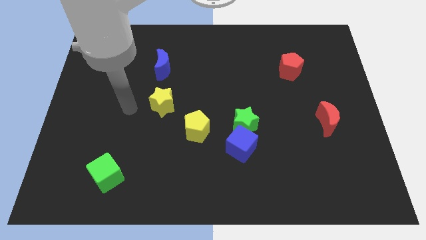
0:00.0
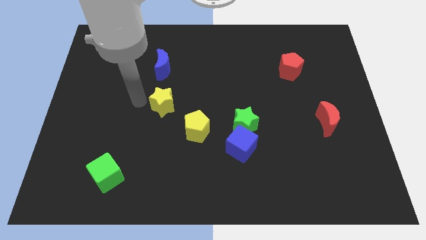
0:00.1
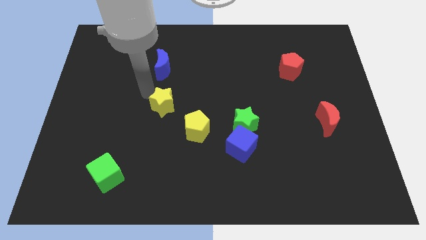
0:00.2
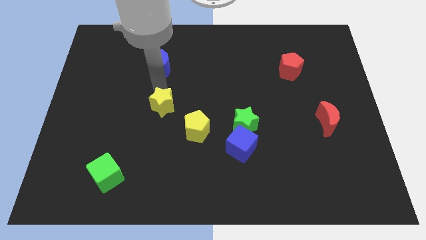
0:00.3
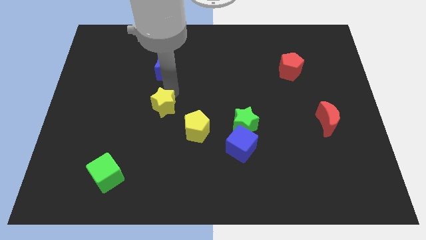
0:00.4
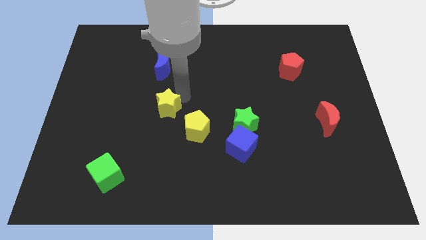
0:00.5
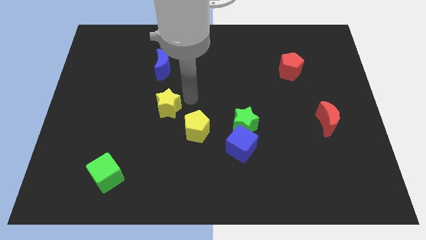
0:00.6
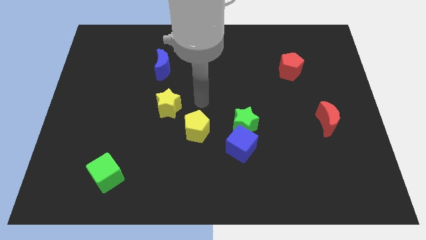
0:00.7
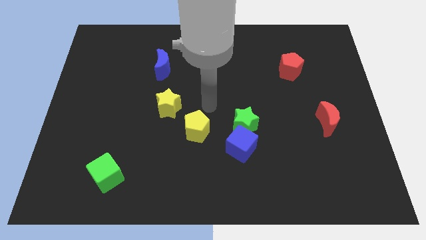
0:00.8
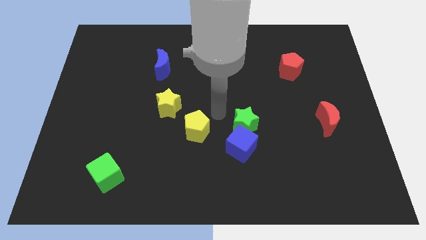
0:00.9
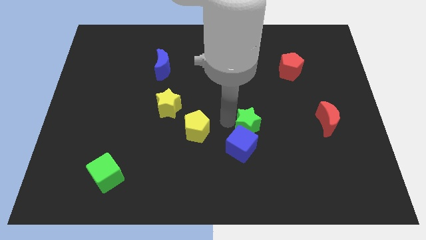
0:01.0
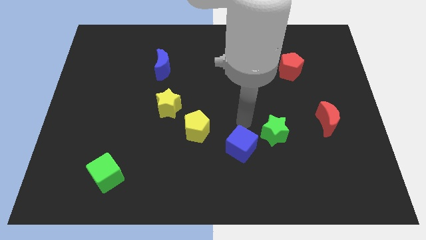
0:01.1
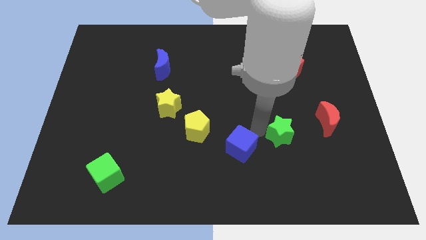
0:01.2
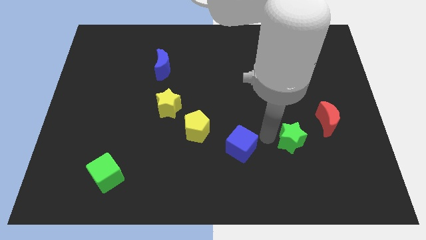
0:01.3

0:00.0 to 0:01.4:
move the blue cube away from the green star

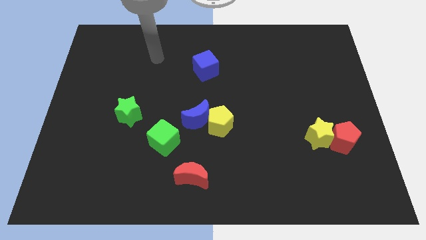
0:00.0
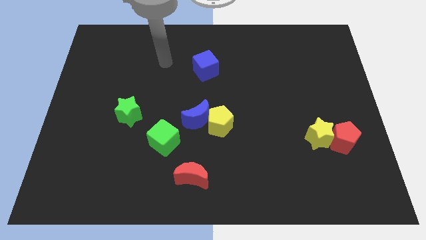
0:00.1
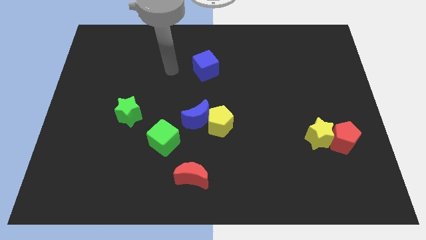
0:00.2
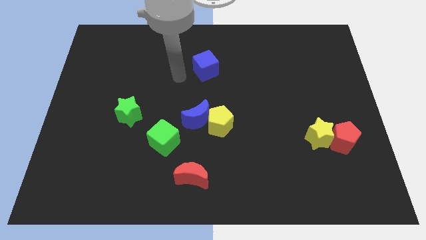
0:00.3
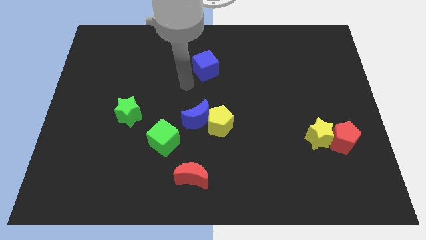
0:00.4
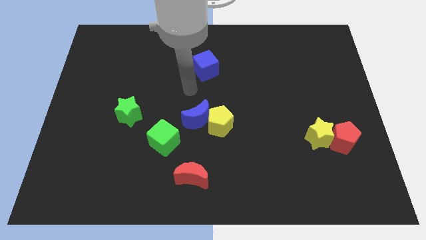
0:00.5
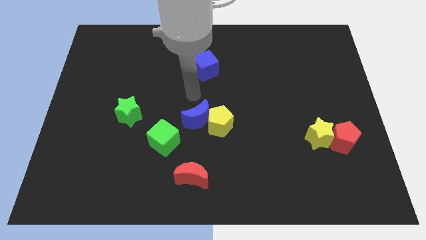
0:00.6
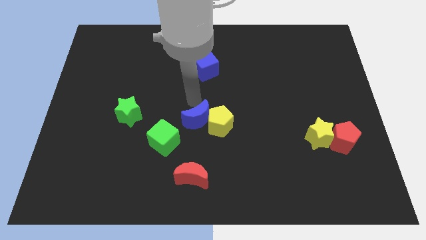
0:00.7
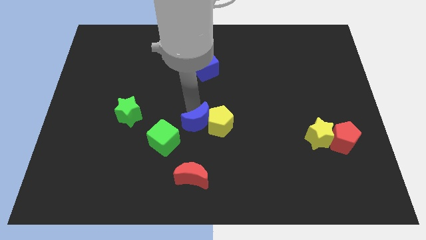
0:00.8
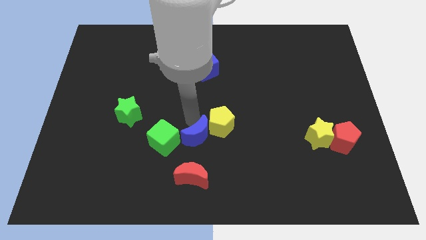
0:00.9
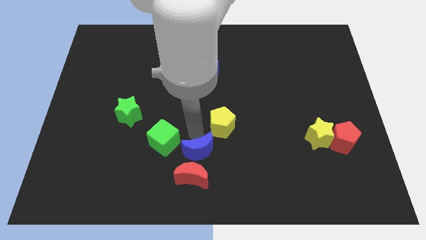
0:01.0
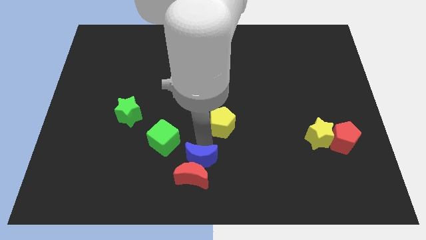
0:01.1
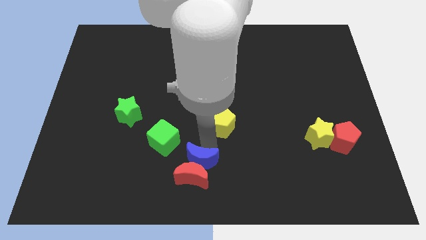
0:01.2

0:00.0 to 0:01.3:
pull the yellow pentagon apart from the blue moon

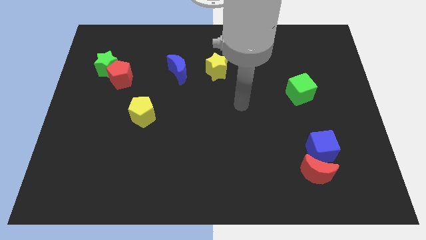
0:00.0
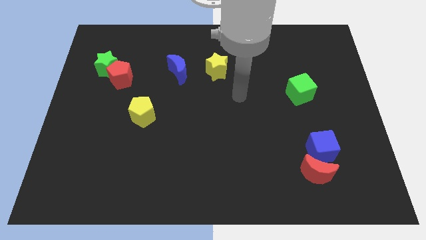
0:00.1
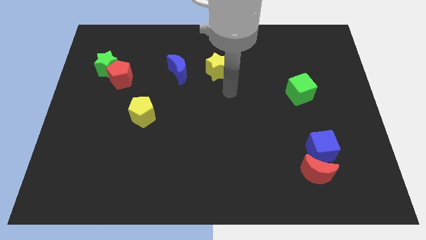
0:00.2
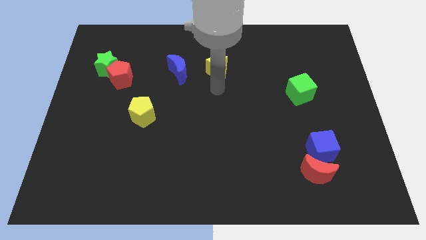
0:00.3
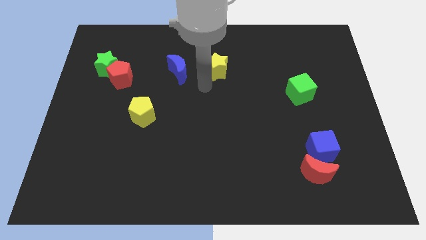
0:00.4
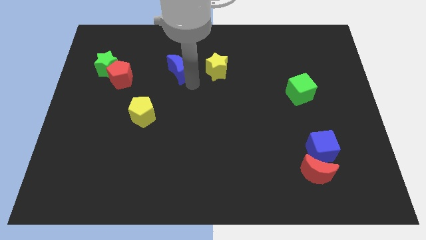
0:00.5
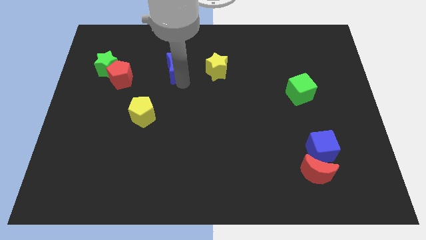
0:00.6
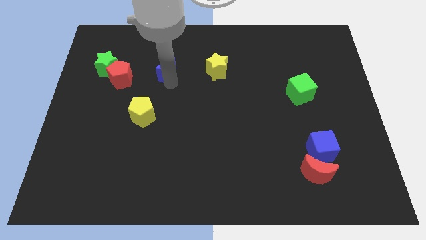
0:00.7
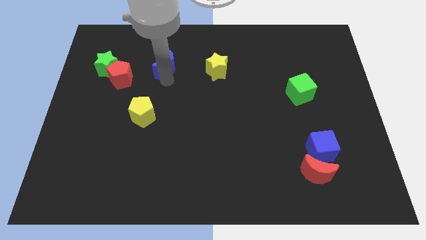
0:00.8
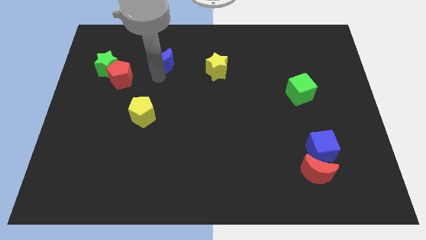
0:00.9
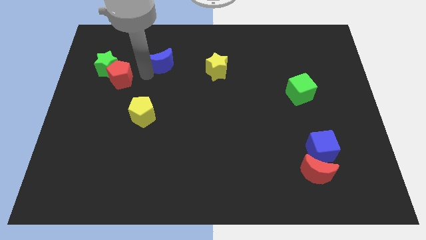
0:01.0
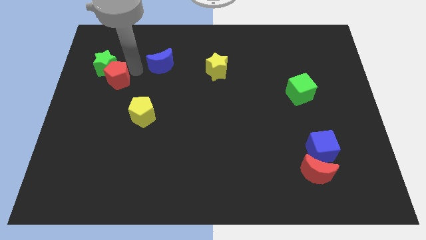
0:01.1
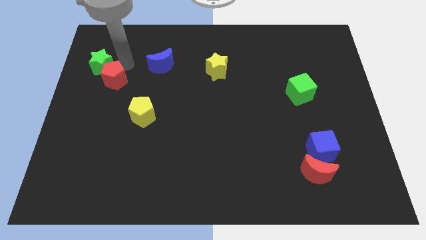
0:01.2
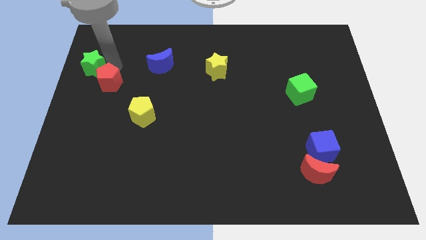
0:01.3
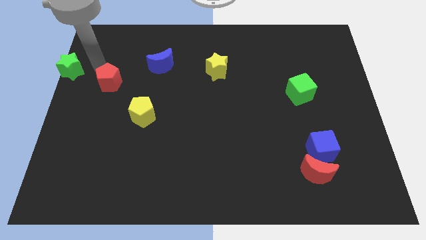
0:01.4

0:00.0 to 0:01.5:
move the red pentagon away from the green star

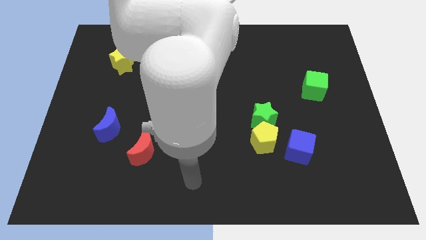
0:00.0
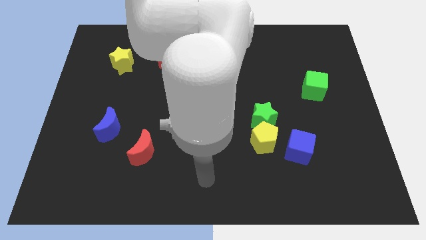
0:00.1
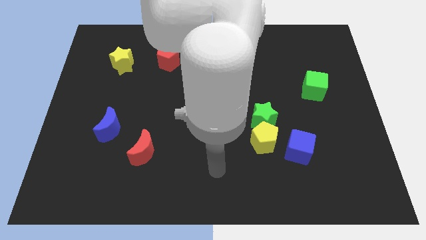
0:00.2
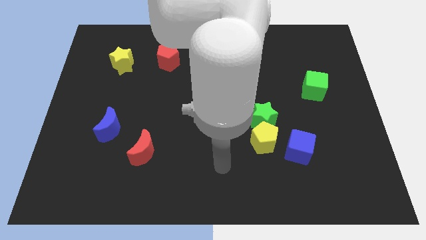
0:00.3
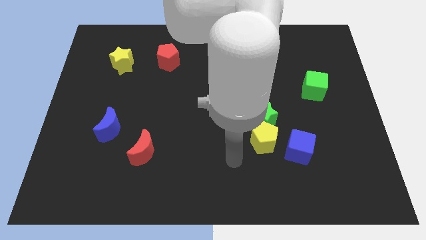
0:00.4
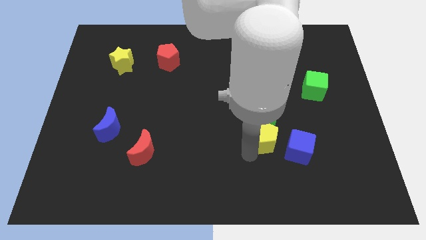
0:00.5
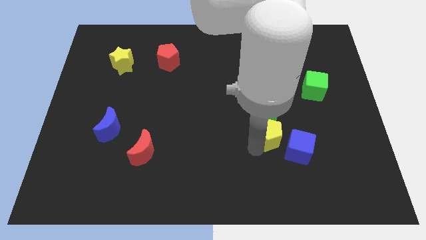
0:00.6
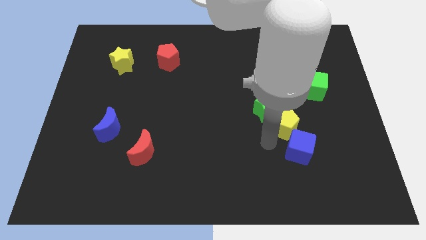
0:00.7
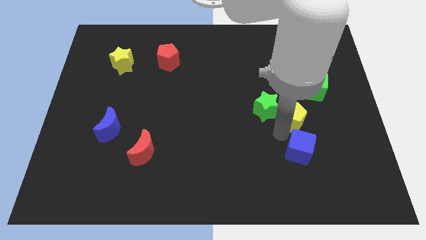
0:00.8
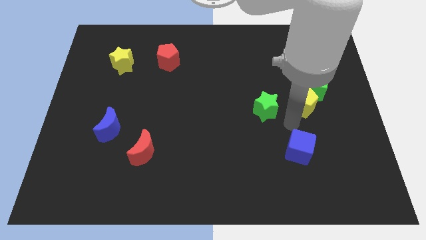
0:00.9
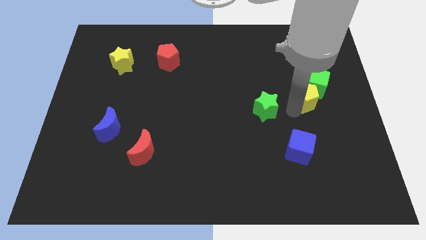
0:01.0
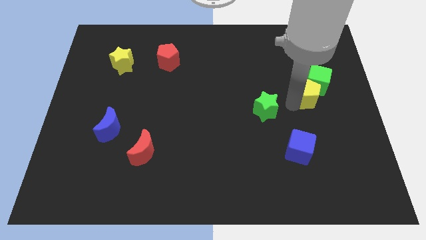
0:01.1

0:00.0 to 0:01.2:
separate the green star from the yellow pentagon

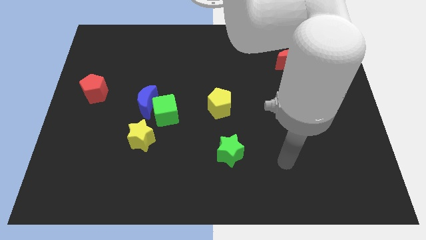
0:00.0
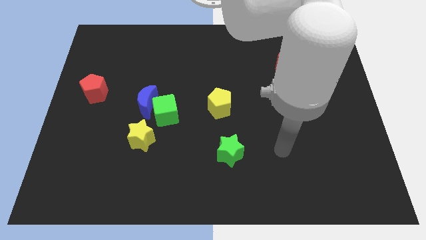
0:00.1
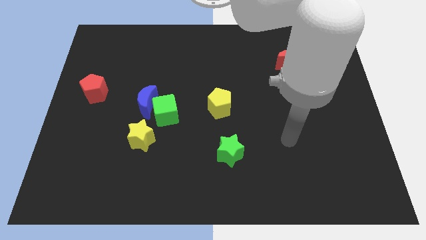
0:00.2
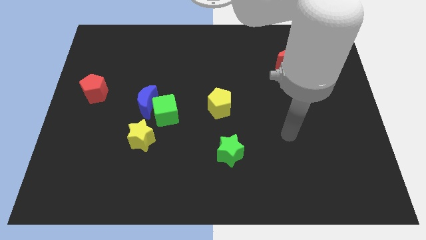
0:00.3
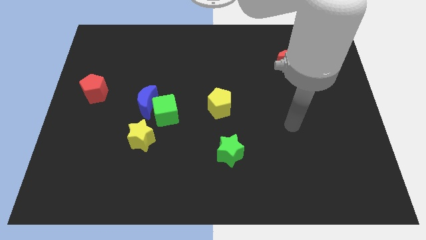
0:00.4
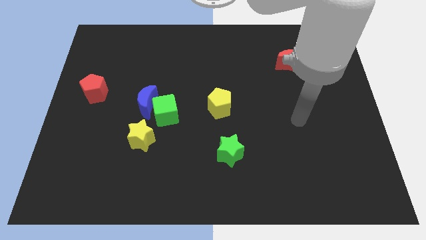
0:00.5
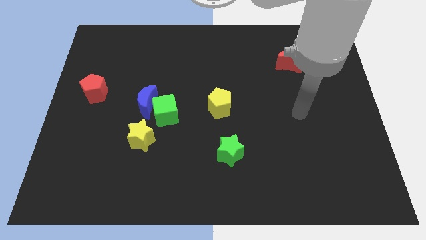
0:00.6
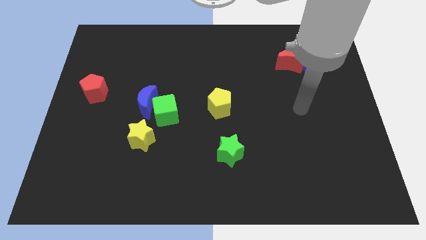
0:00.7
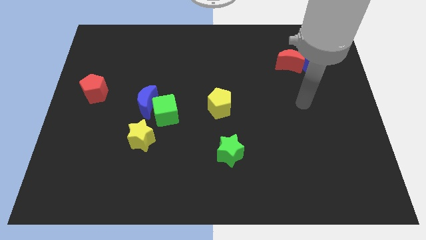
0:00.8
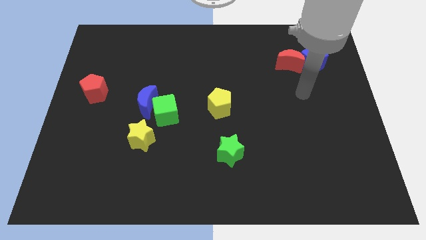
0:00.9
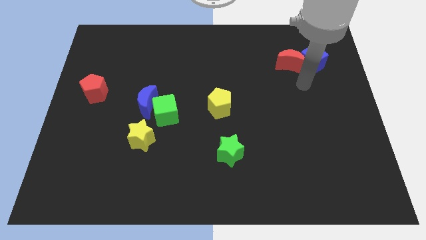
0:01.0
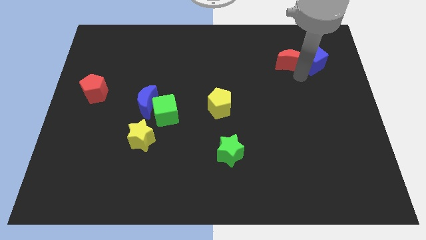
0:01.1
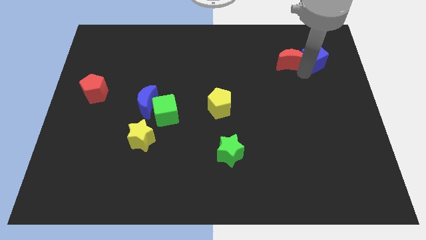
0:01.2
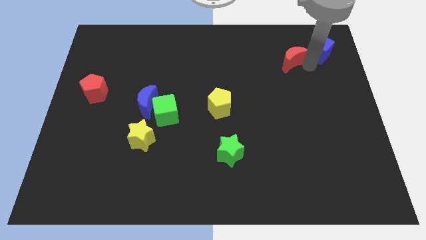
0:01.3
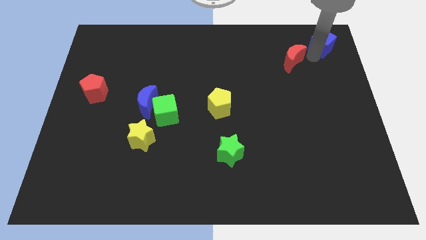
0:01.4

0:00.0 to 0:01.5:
pull the red moon apart from the blue cube

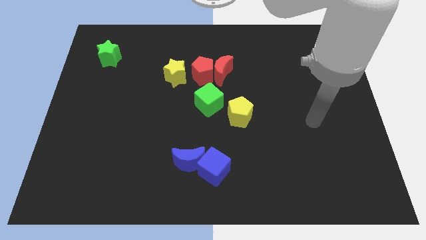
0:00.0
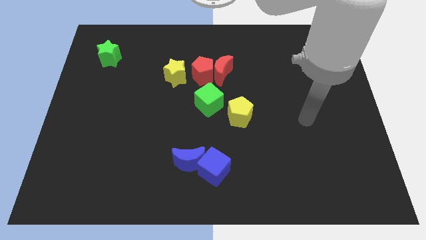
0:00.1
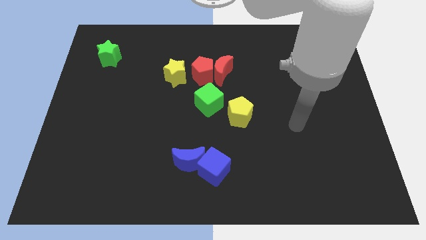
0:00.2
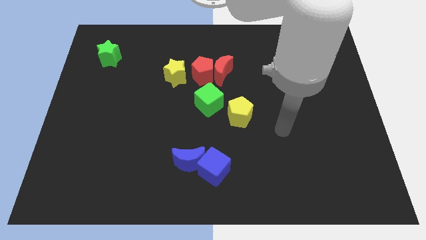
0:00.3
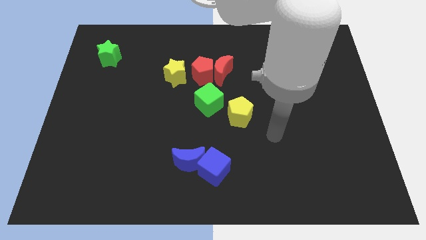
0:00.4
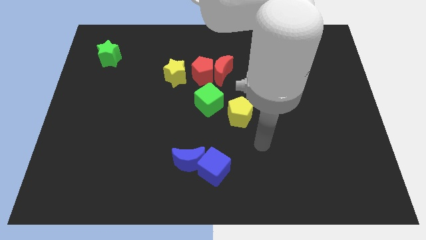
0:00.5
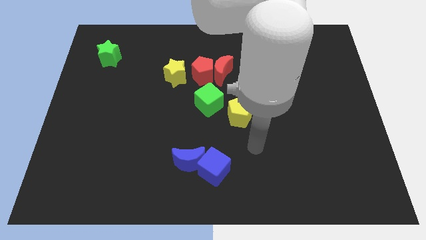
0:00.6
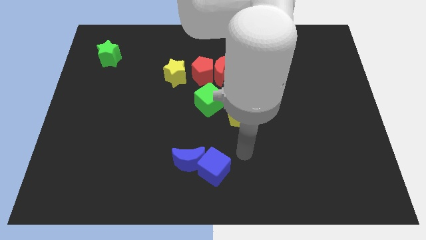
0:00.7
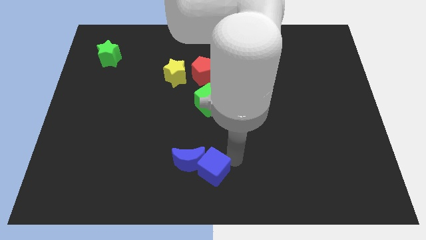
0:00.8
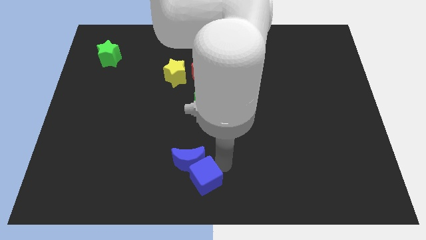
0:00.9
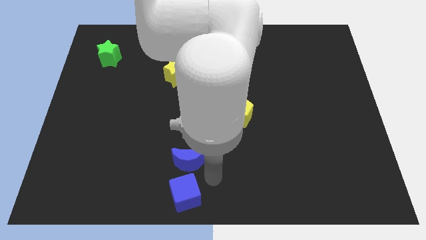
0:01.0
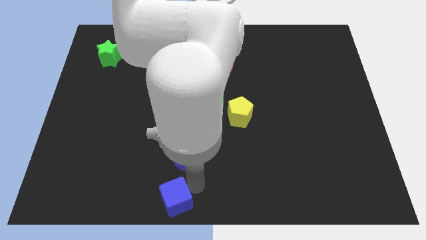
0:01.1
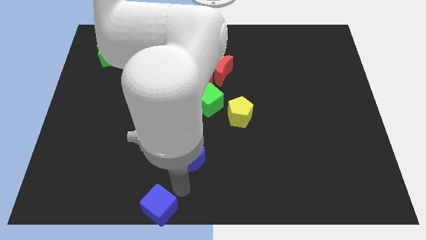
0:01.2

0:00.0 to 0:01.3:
separate the blue moon from the blue cube

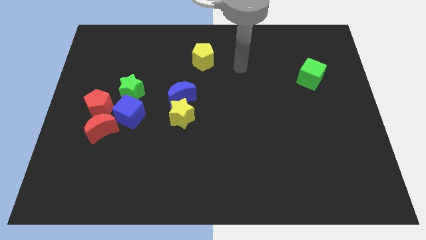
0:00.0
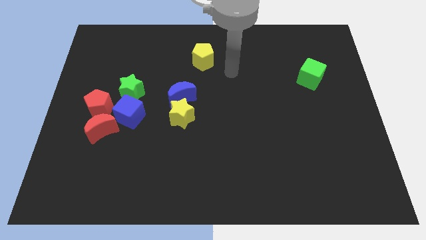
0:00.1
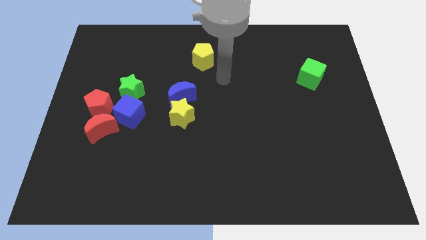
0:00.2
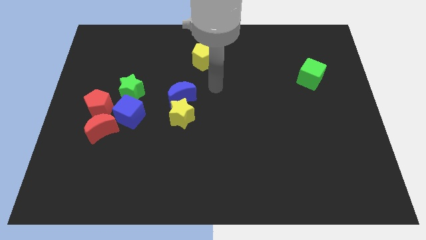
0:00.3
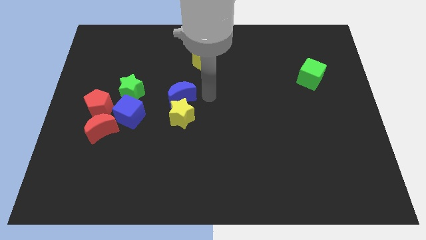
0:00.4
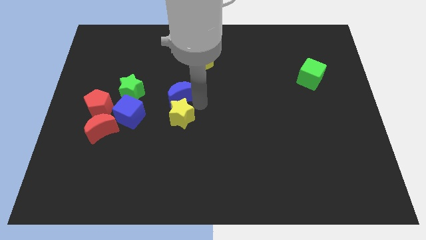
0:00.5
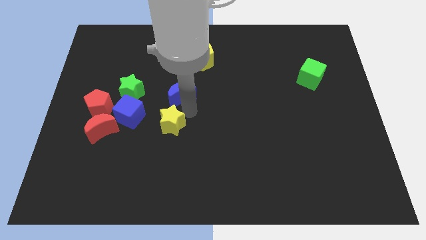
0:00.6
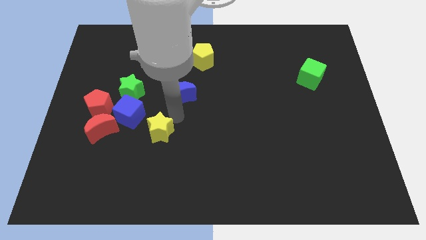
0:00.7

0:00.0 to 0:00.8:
pull the blue moon apart from the yellow star

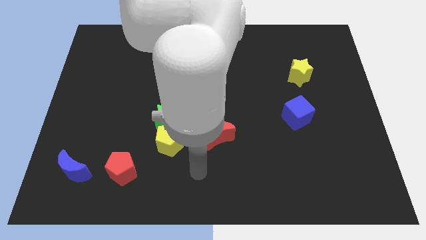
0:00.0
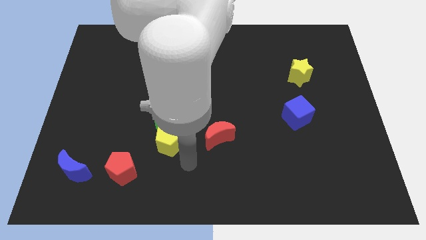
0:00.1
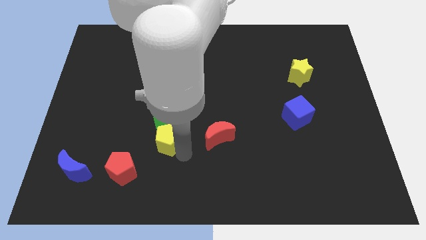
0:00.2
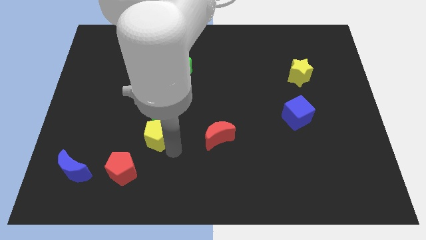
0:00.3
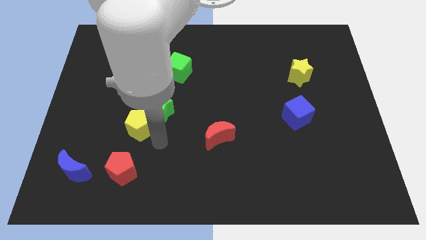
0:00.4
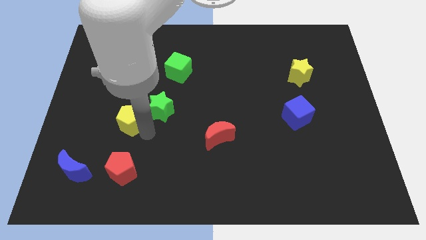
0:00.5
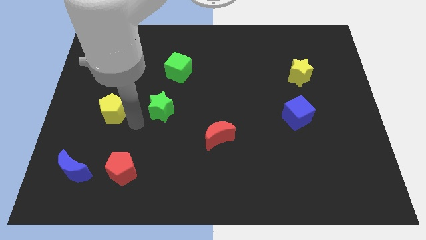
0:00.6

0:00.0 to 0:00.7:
move the green star away from the yellow pentagon
